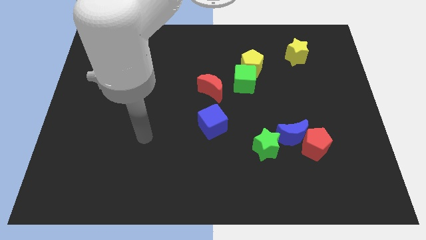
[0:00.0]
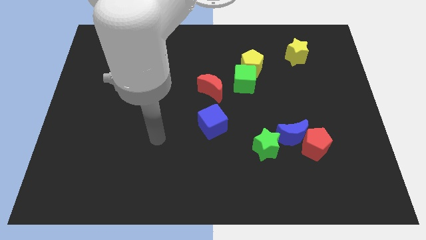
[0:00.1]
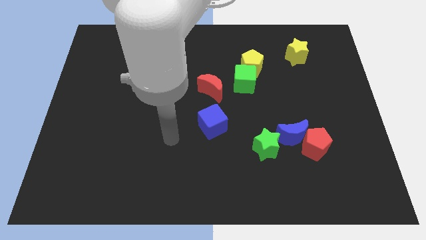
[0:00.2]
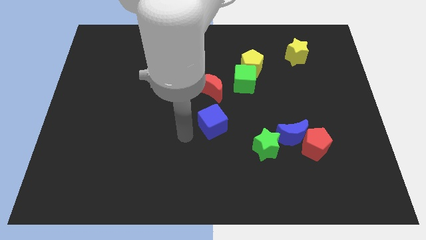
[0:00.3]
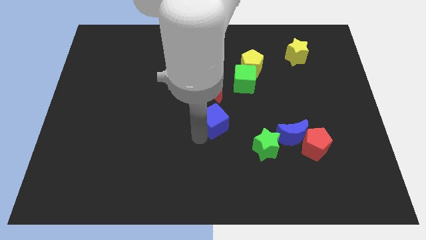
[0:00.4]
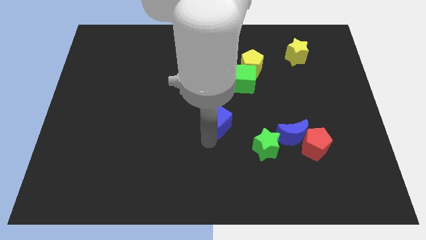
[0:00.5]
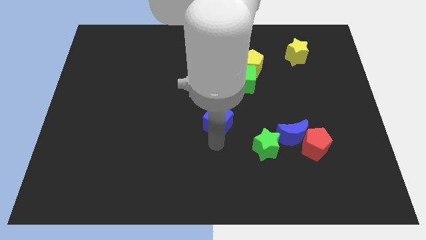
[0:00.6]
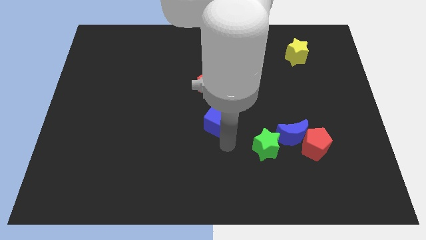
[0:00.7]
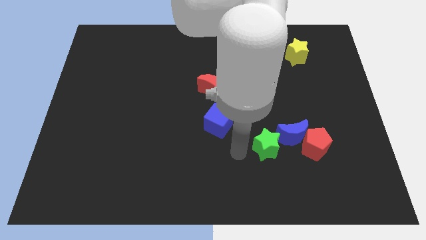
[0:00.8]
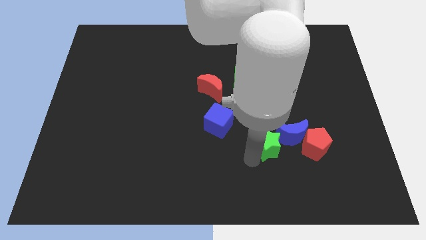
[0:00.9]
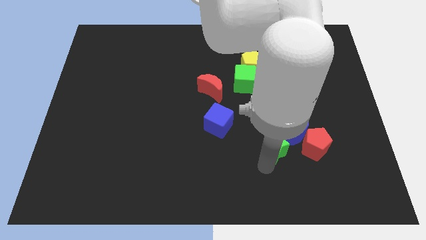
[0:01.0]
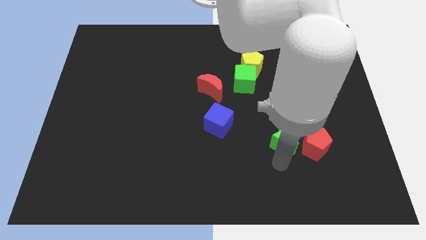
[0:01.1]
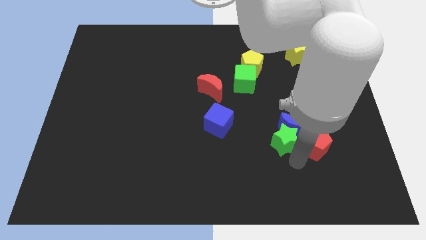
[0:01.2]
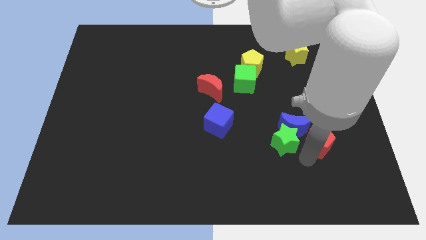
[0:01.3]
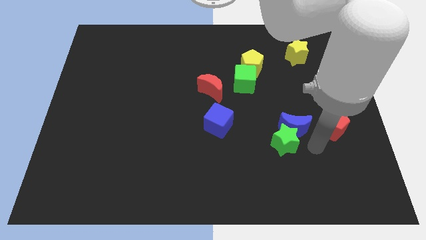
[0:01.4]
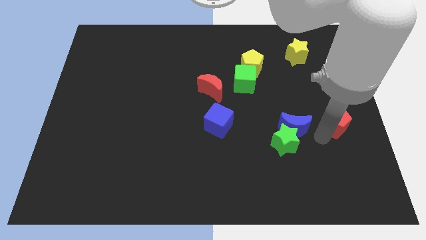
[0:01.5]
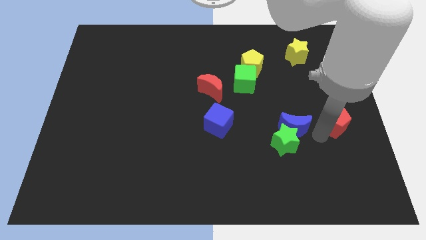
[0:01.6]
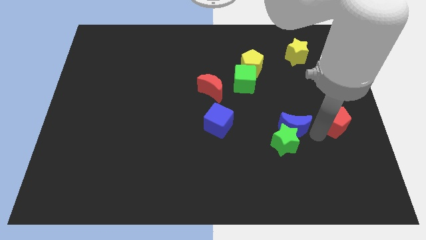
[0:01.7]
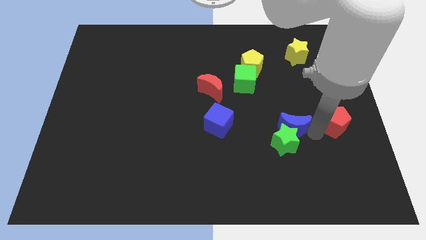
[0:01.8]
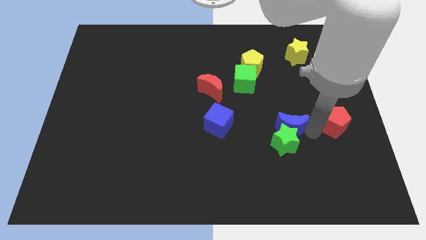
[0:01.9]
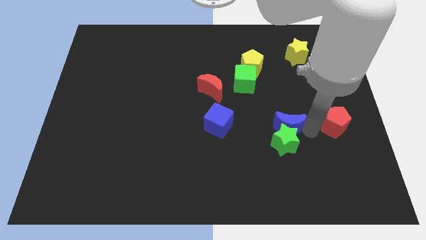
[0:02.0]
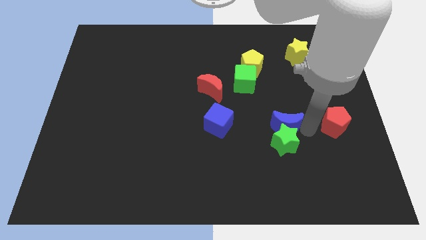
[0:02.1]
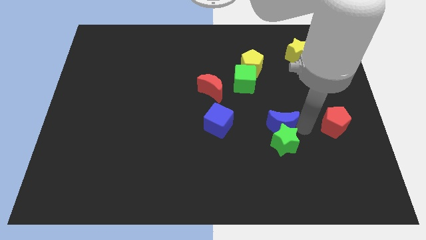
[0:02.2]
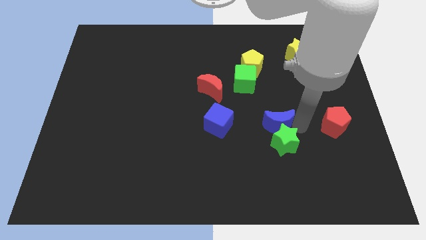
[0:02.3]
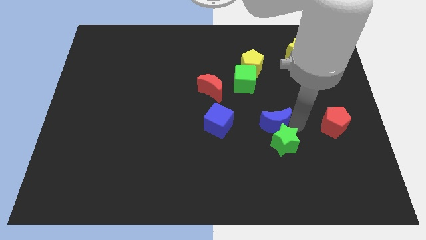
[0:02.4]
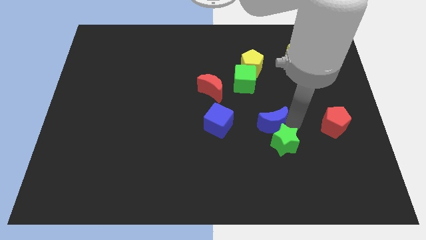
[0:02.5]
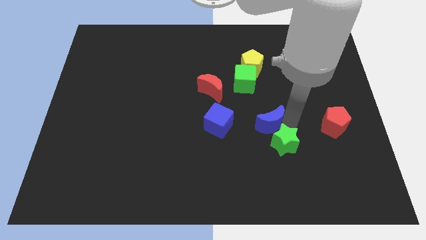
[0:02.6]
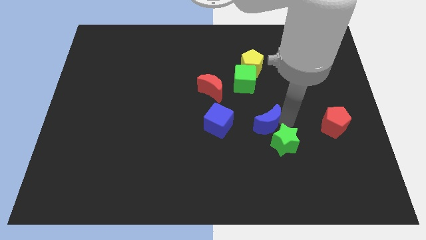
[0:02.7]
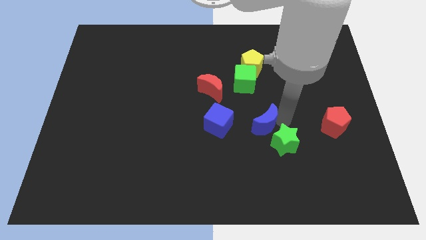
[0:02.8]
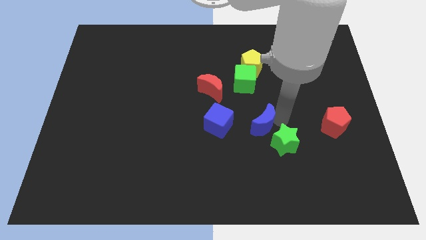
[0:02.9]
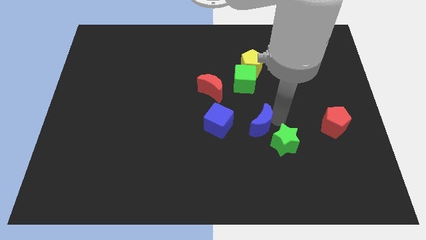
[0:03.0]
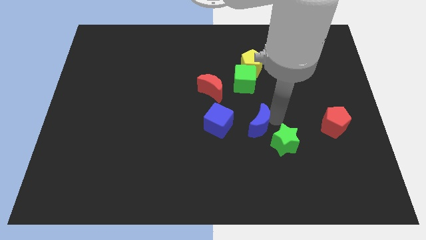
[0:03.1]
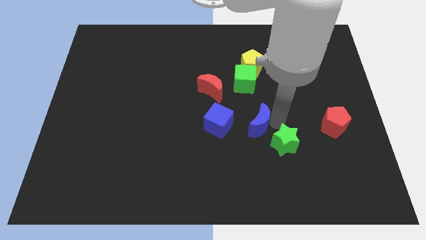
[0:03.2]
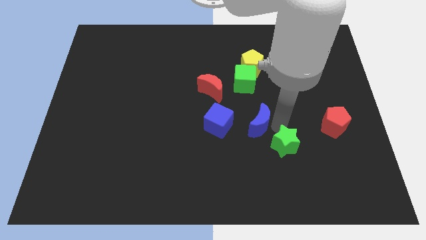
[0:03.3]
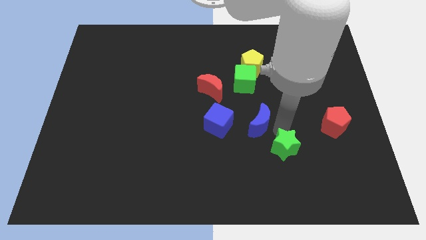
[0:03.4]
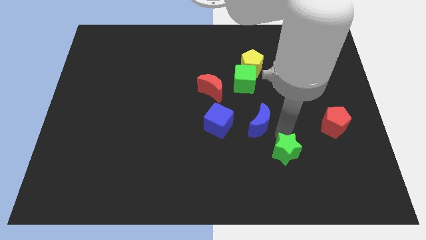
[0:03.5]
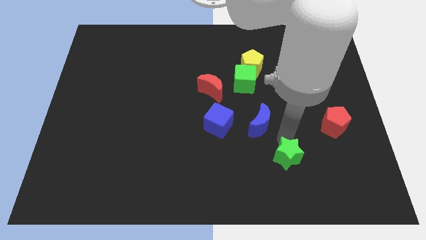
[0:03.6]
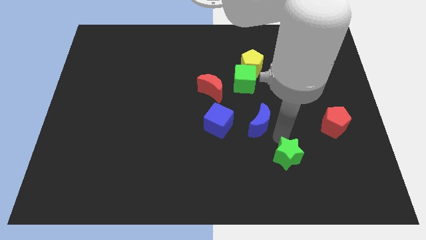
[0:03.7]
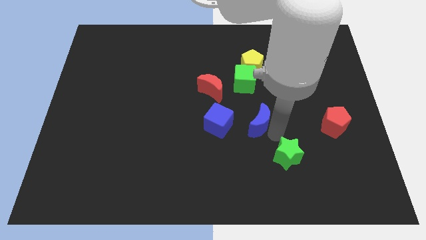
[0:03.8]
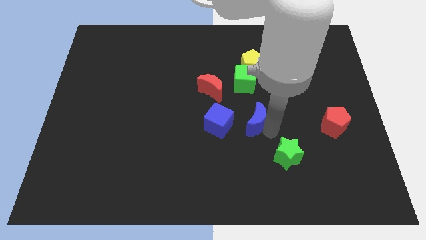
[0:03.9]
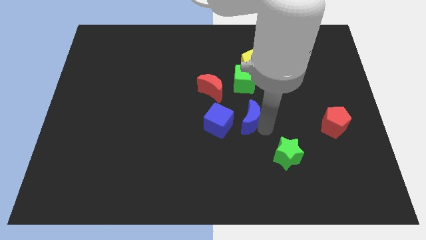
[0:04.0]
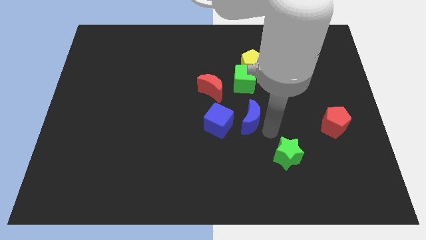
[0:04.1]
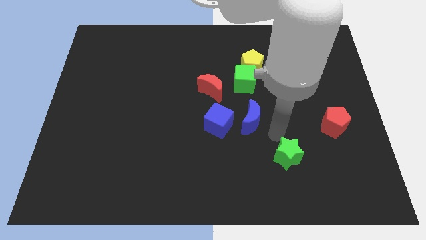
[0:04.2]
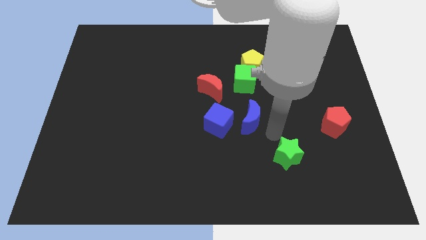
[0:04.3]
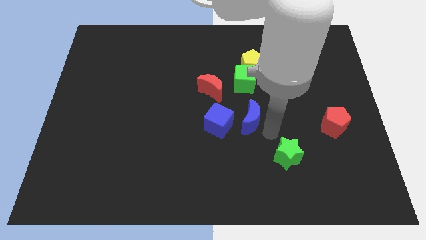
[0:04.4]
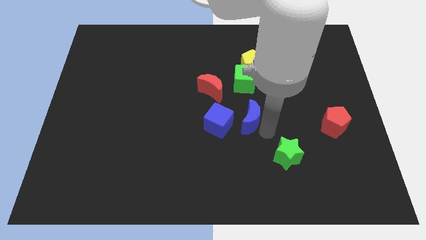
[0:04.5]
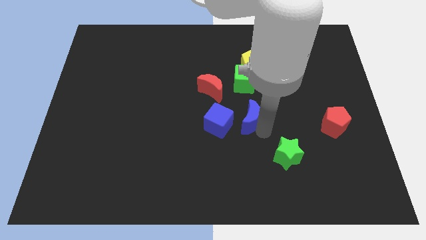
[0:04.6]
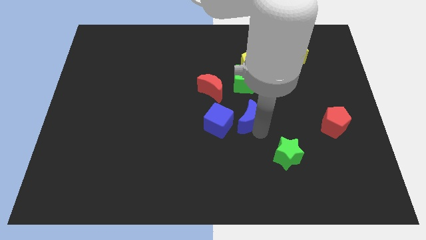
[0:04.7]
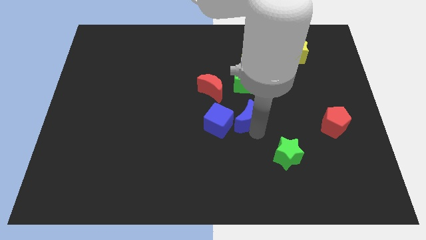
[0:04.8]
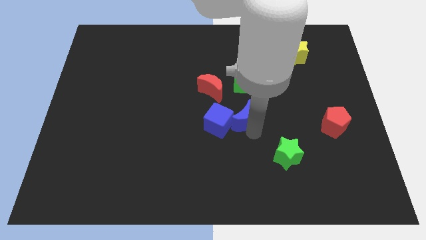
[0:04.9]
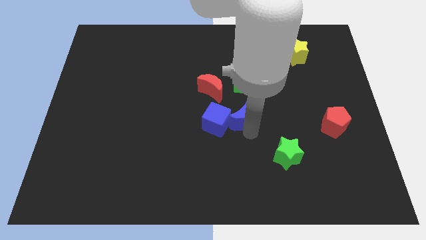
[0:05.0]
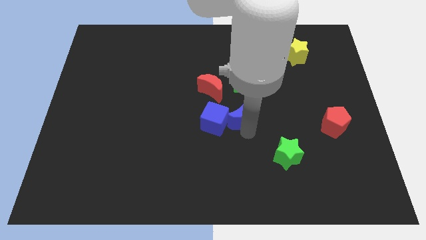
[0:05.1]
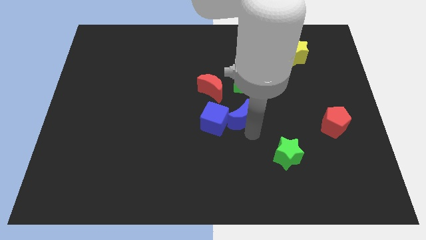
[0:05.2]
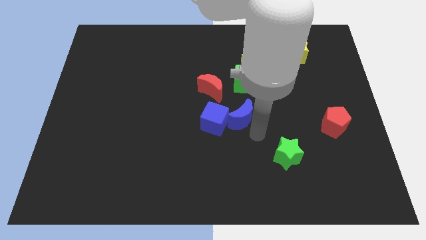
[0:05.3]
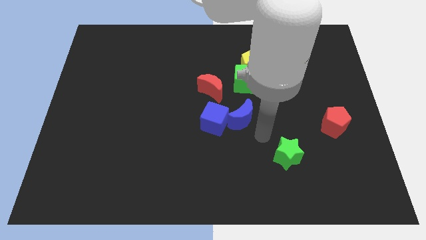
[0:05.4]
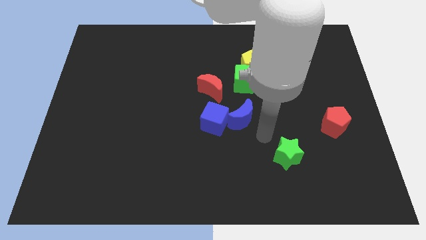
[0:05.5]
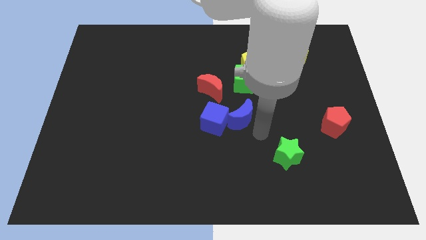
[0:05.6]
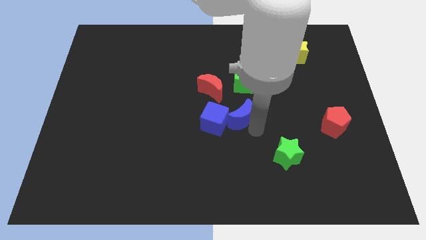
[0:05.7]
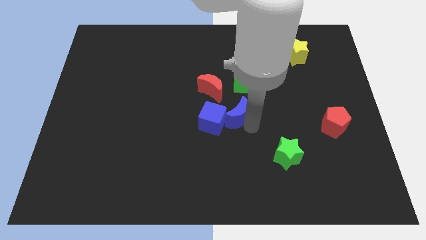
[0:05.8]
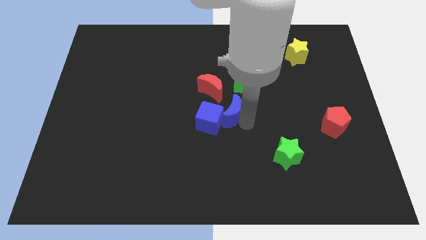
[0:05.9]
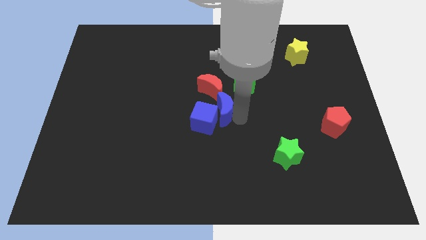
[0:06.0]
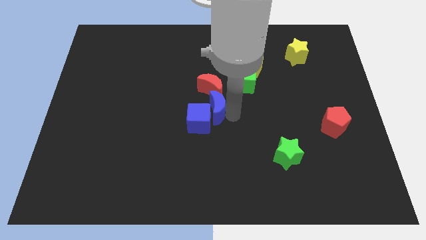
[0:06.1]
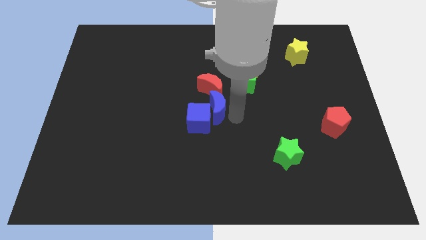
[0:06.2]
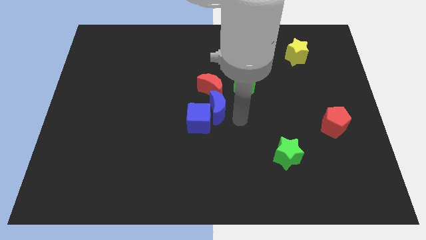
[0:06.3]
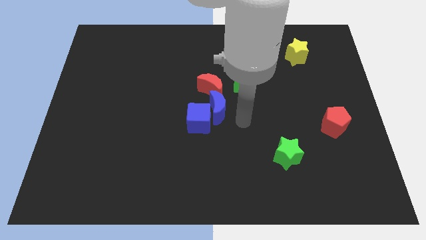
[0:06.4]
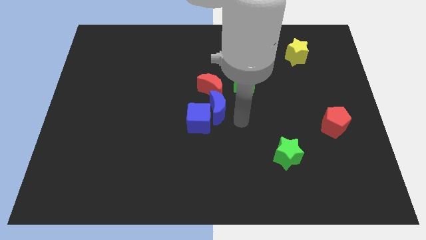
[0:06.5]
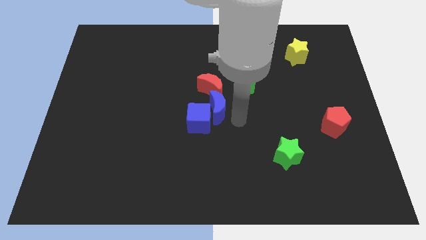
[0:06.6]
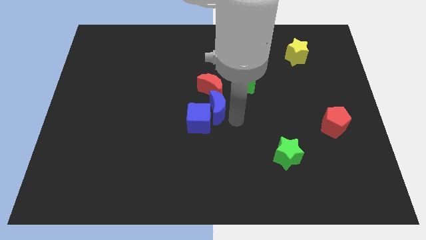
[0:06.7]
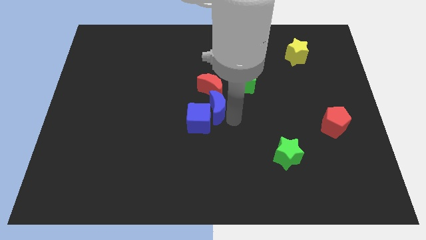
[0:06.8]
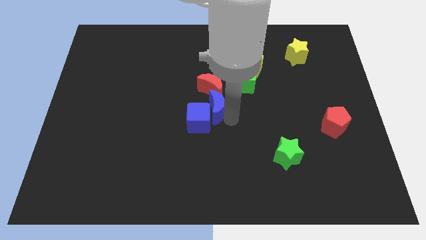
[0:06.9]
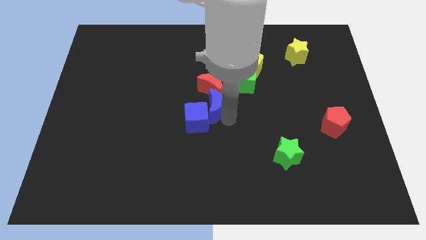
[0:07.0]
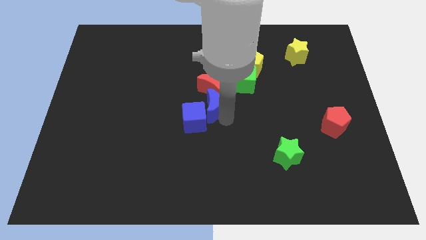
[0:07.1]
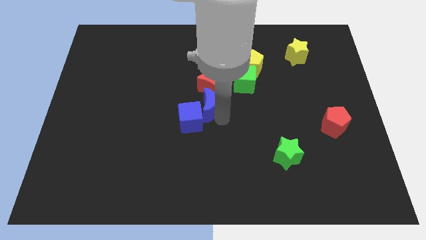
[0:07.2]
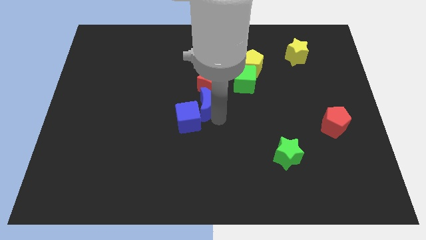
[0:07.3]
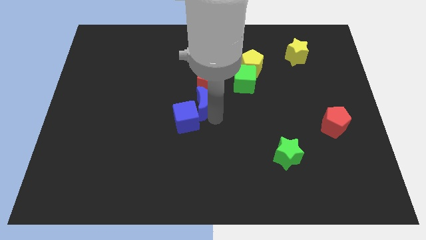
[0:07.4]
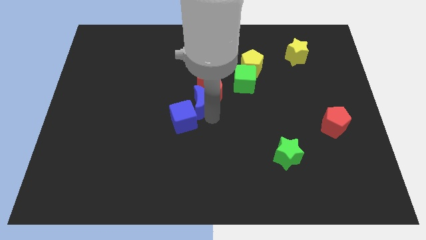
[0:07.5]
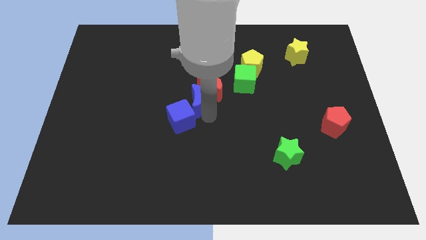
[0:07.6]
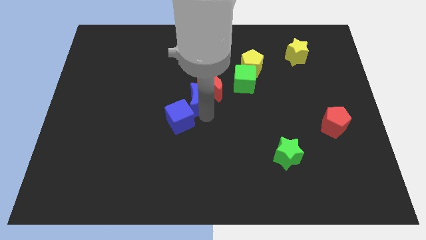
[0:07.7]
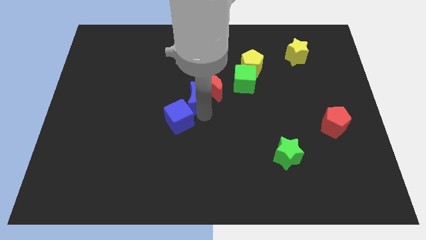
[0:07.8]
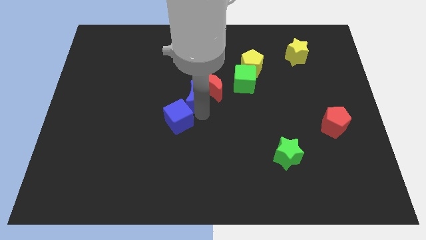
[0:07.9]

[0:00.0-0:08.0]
push the blue moon up and left
